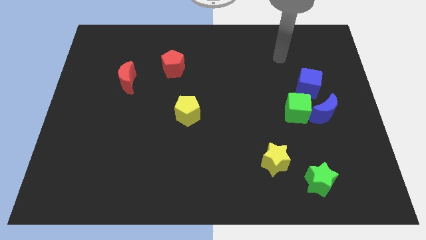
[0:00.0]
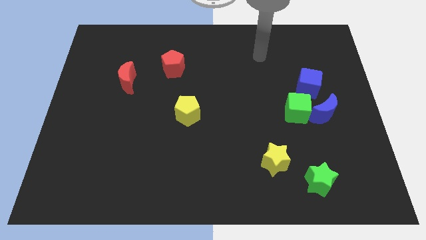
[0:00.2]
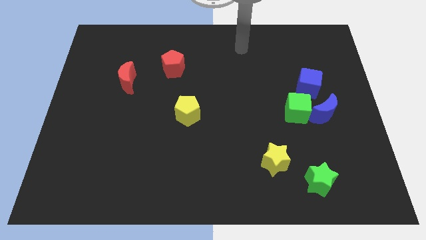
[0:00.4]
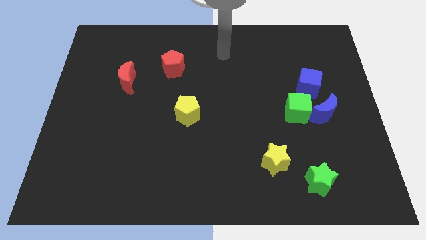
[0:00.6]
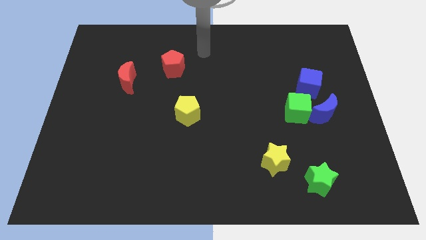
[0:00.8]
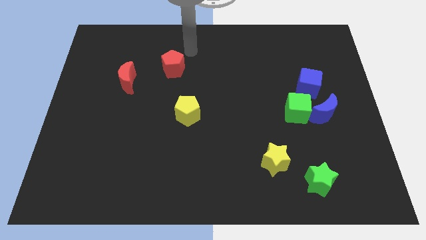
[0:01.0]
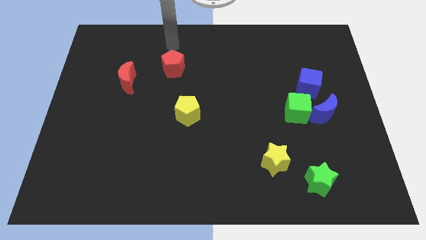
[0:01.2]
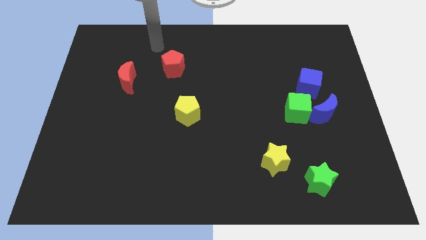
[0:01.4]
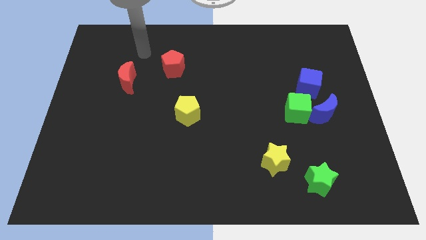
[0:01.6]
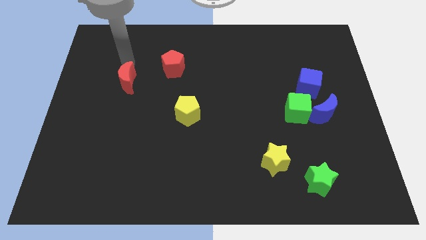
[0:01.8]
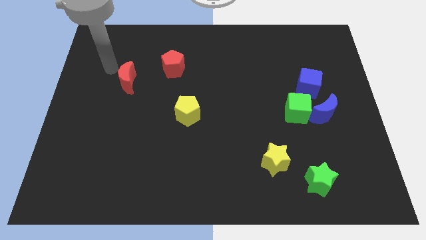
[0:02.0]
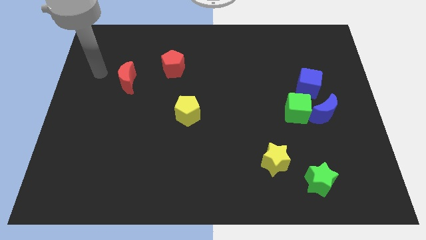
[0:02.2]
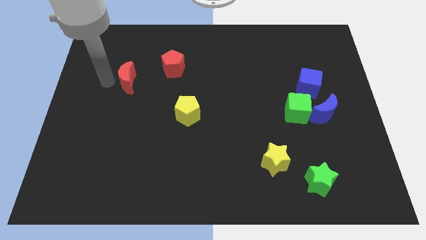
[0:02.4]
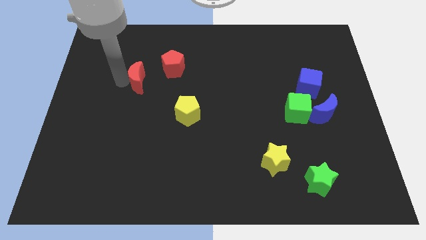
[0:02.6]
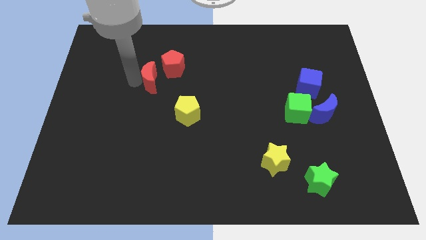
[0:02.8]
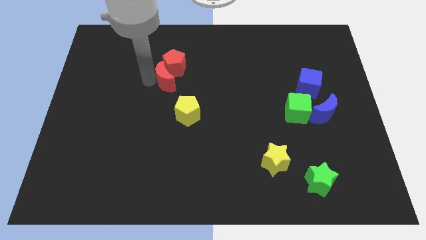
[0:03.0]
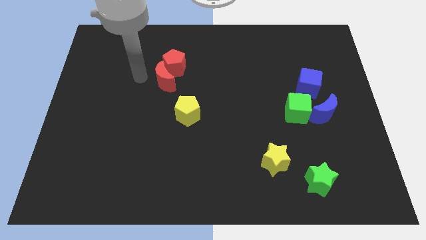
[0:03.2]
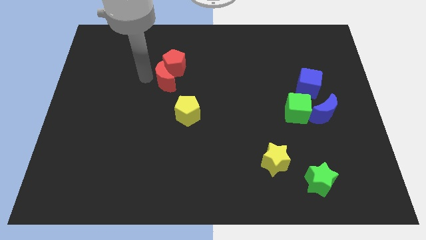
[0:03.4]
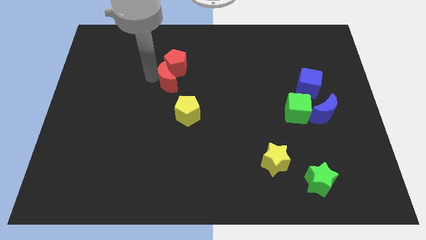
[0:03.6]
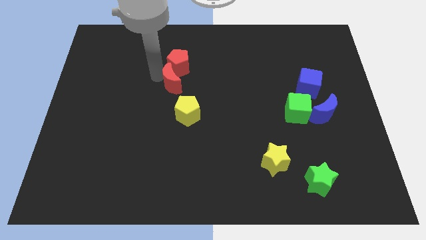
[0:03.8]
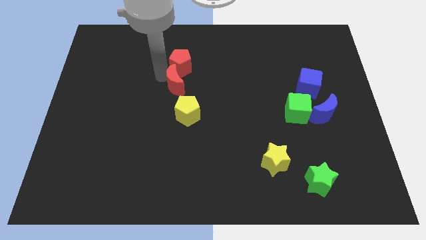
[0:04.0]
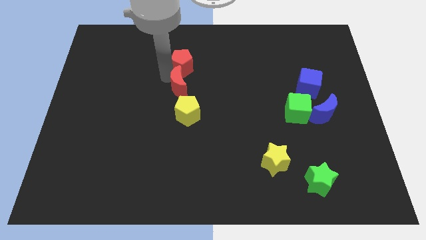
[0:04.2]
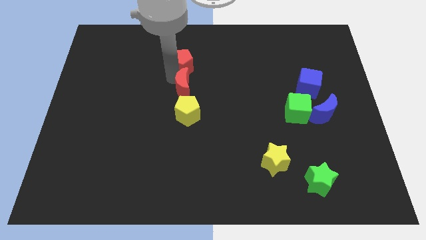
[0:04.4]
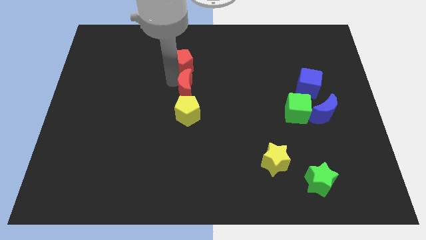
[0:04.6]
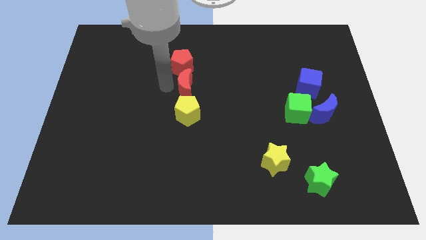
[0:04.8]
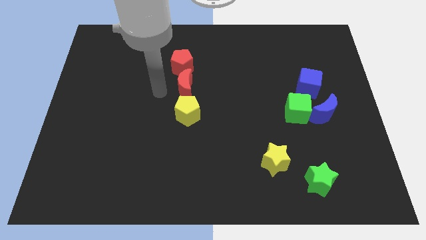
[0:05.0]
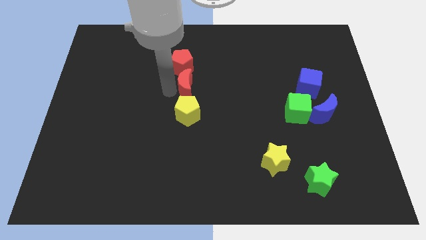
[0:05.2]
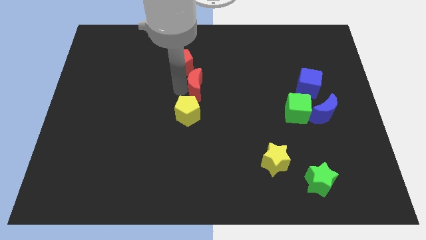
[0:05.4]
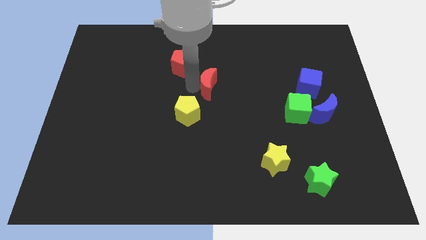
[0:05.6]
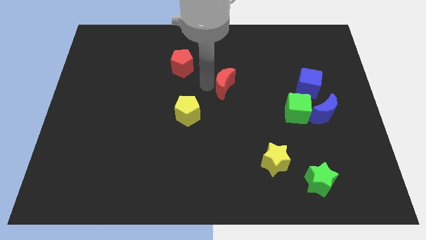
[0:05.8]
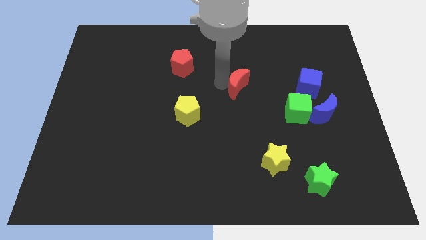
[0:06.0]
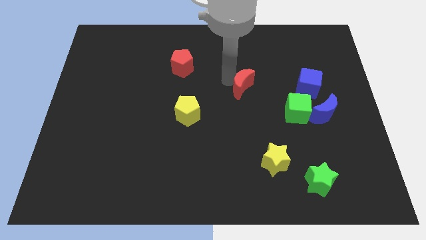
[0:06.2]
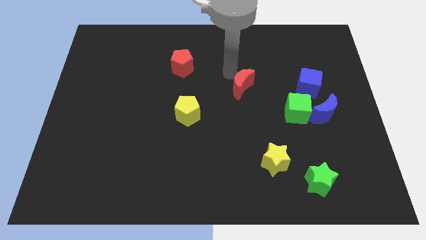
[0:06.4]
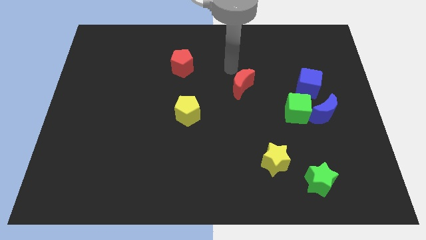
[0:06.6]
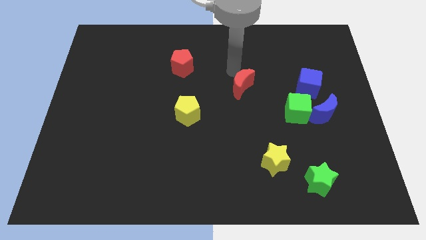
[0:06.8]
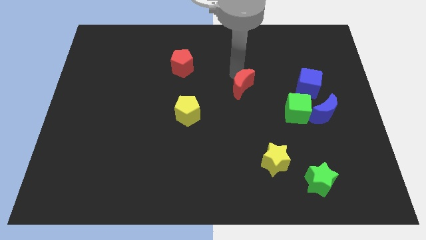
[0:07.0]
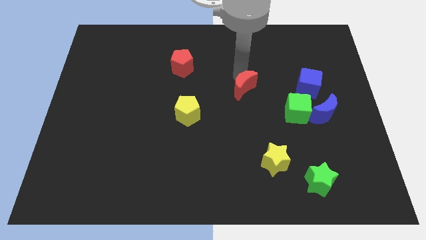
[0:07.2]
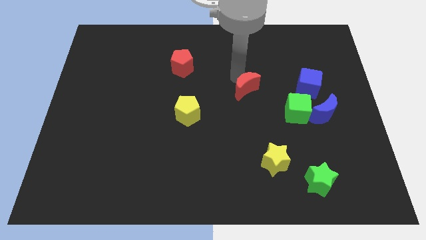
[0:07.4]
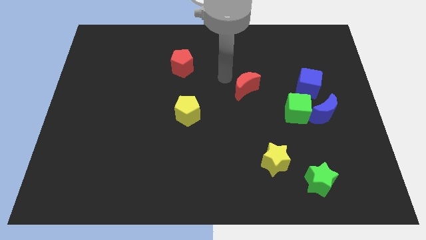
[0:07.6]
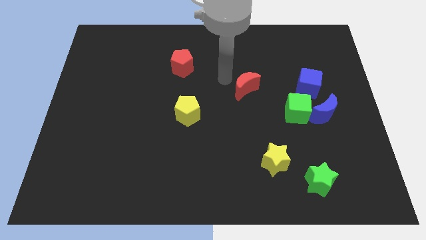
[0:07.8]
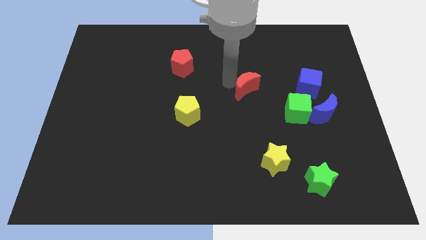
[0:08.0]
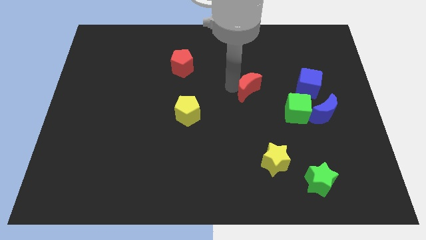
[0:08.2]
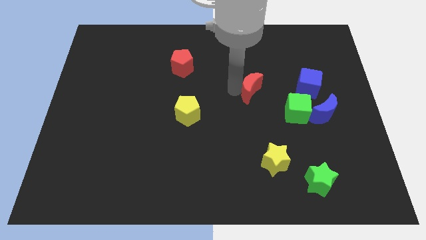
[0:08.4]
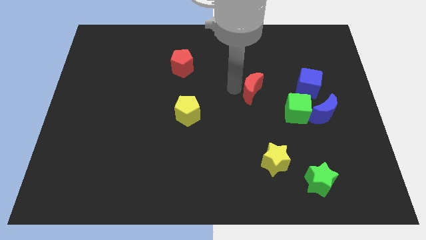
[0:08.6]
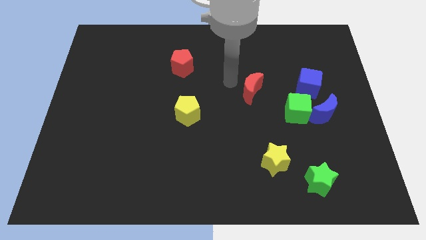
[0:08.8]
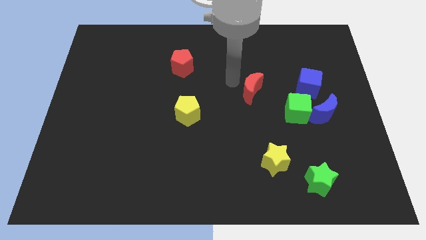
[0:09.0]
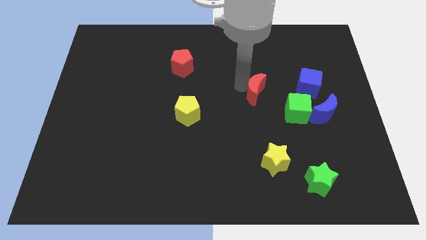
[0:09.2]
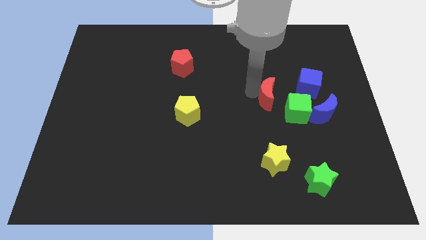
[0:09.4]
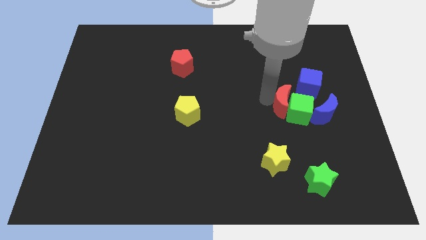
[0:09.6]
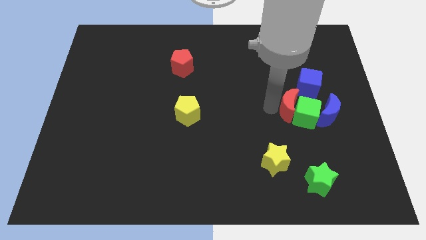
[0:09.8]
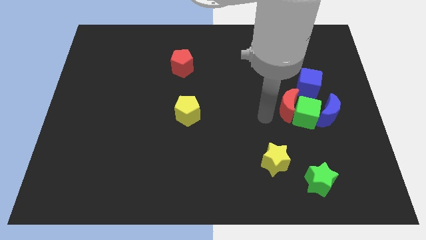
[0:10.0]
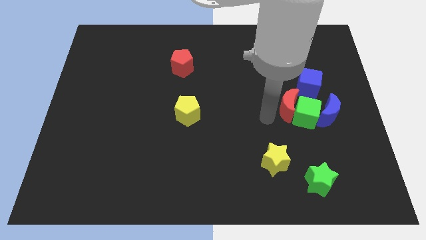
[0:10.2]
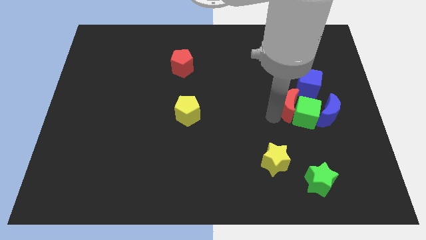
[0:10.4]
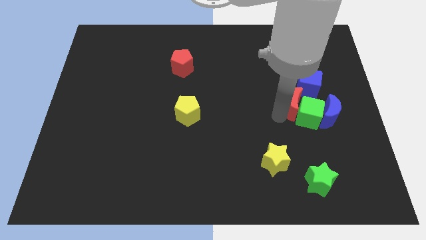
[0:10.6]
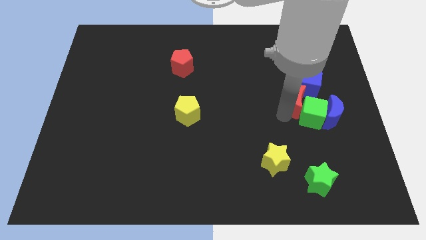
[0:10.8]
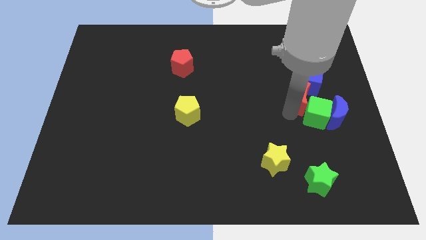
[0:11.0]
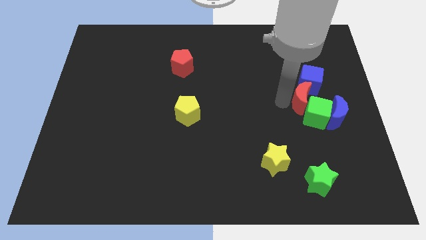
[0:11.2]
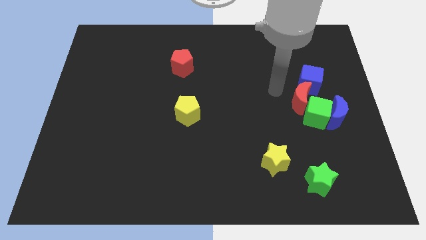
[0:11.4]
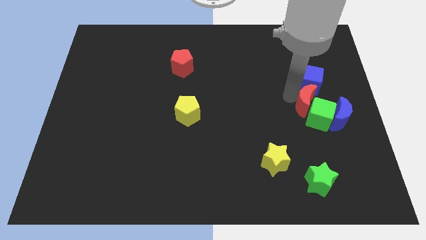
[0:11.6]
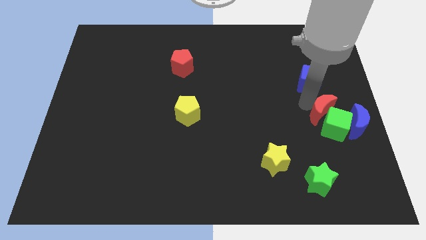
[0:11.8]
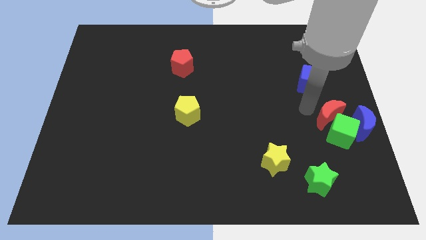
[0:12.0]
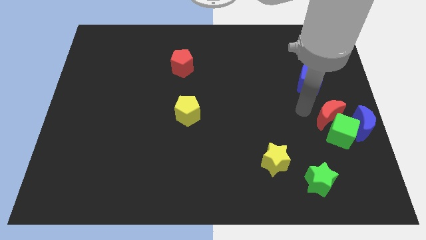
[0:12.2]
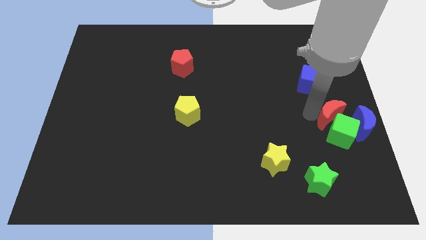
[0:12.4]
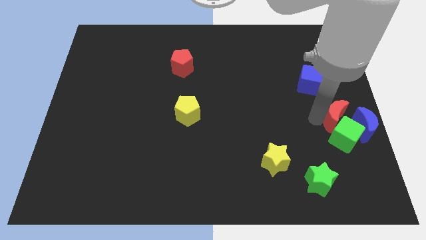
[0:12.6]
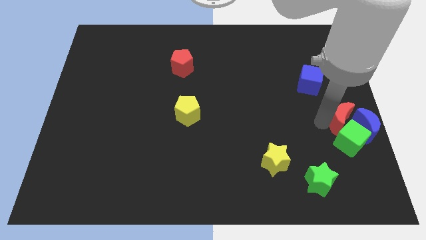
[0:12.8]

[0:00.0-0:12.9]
put the red moon towards the blue moon
